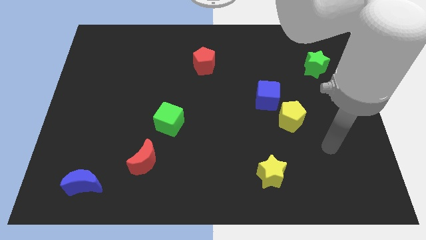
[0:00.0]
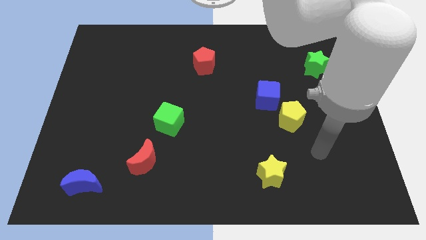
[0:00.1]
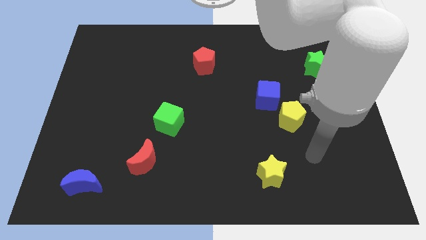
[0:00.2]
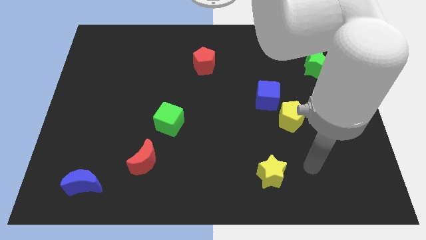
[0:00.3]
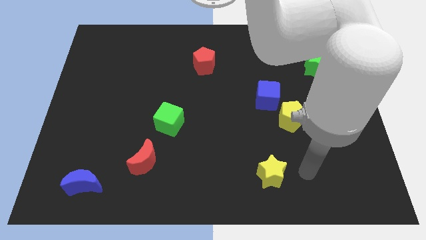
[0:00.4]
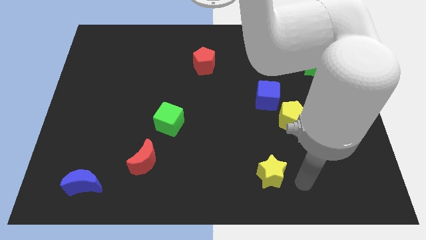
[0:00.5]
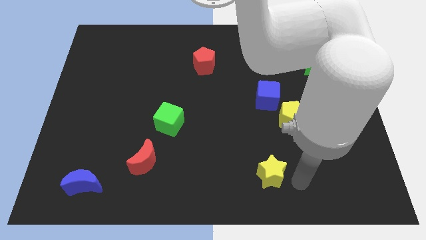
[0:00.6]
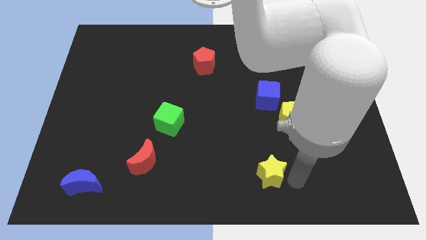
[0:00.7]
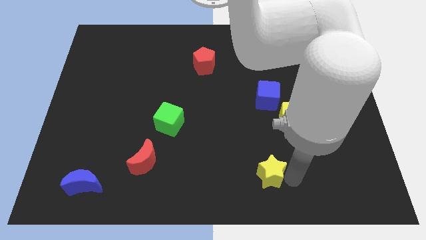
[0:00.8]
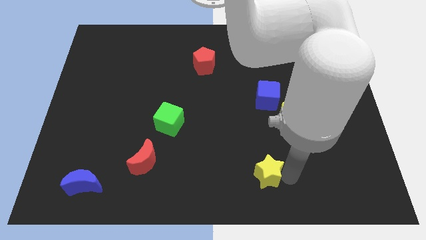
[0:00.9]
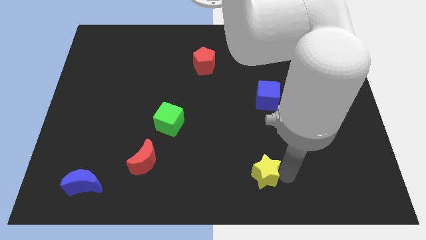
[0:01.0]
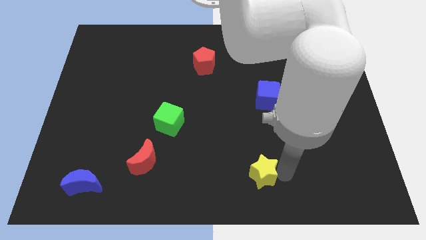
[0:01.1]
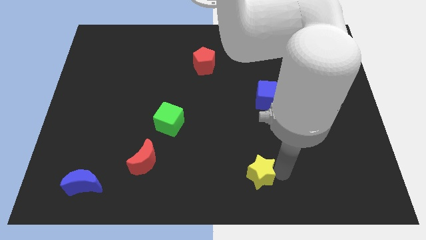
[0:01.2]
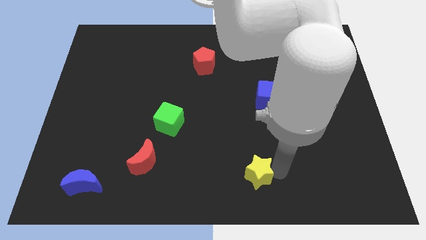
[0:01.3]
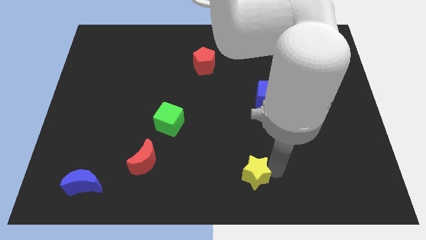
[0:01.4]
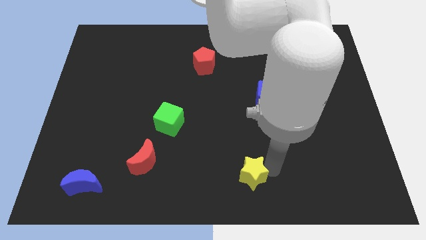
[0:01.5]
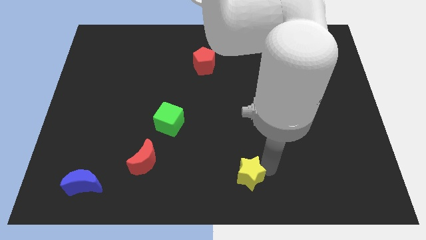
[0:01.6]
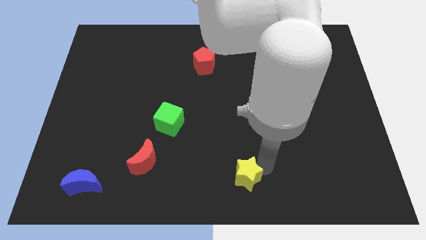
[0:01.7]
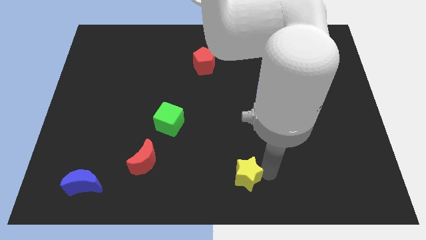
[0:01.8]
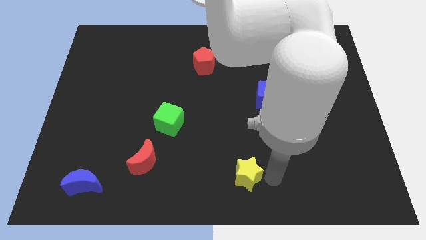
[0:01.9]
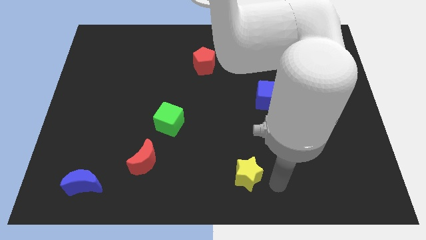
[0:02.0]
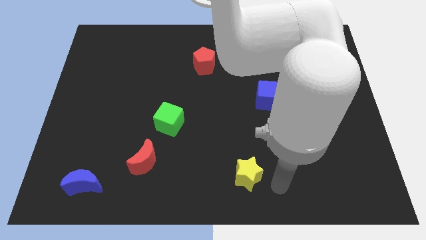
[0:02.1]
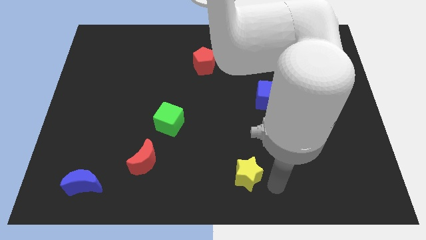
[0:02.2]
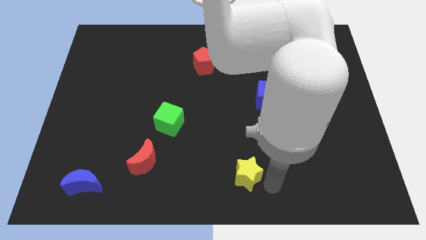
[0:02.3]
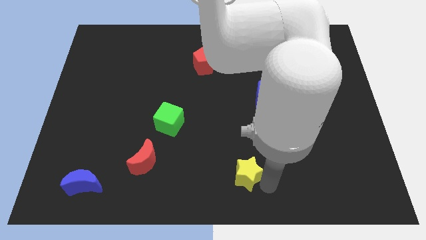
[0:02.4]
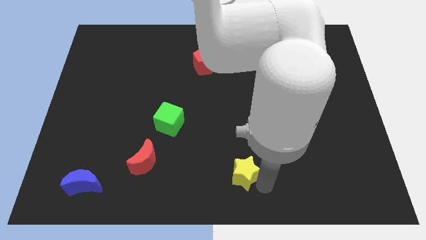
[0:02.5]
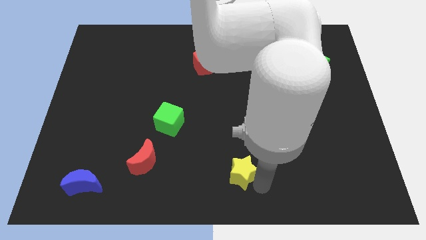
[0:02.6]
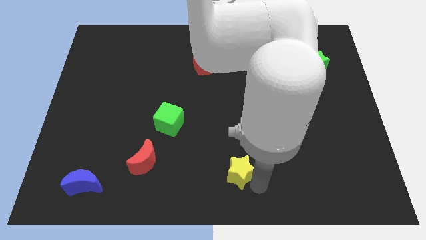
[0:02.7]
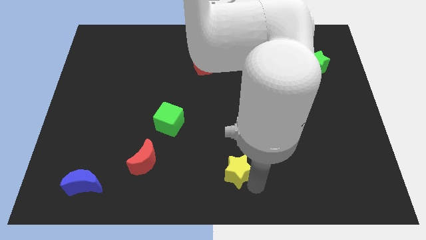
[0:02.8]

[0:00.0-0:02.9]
slightly move the yellow star to the left

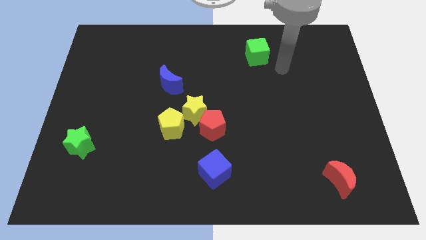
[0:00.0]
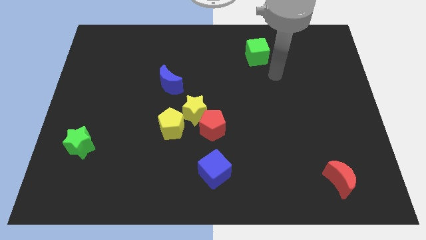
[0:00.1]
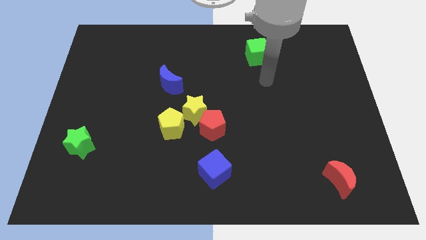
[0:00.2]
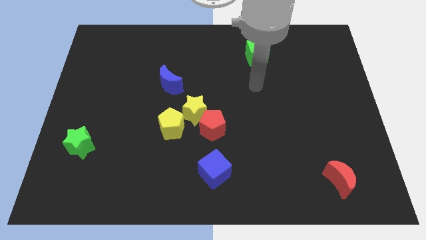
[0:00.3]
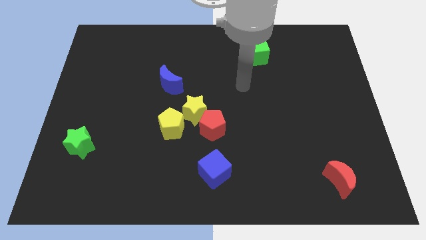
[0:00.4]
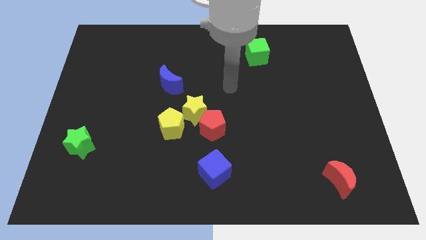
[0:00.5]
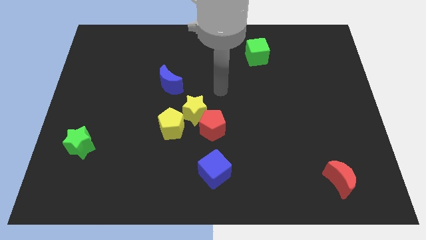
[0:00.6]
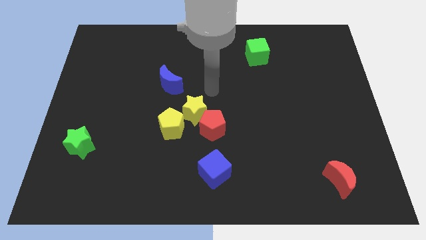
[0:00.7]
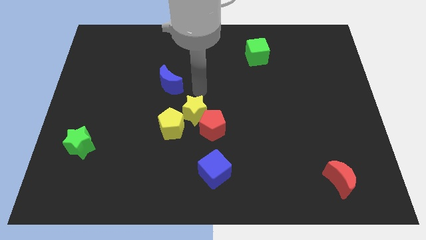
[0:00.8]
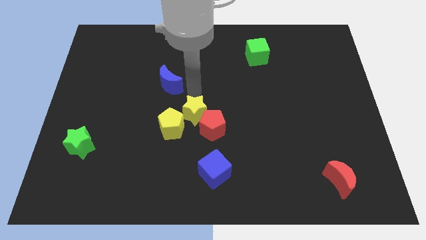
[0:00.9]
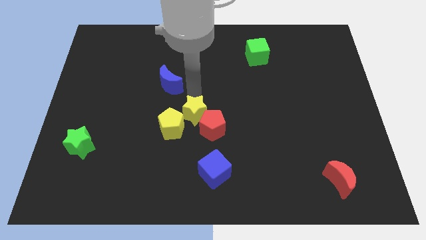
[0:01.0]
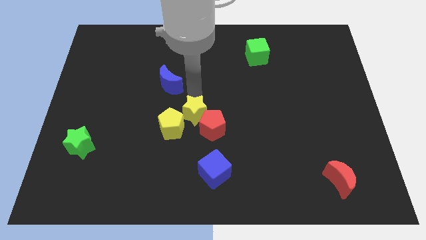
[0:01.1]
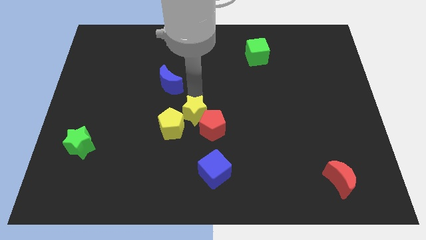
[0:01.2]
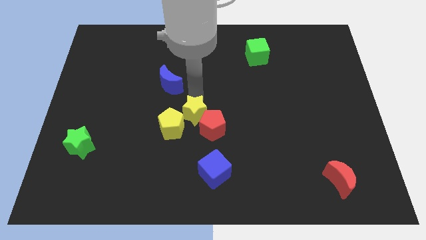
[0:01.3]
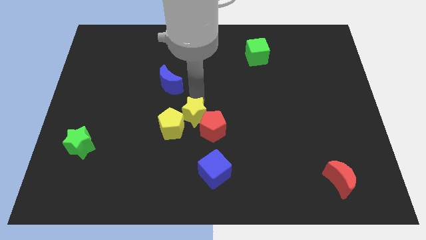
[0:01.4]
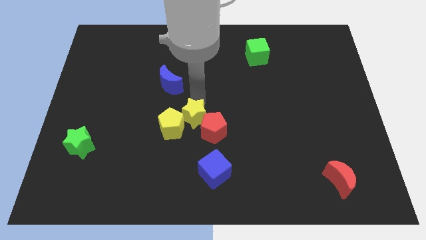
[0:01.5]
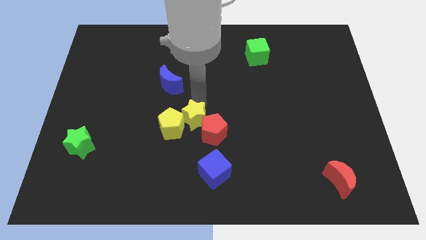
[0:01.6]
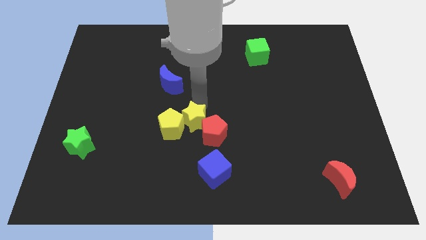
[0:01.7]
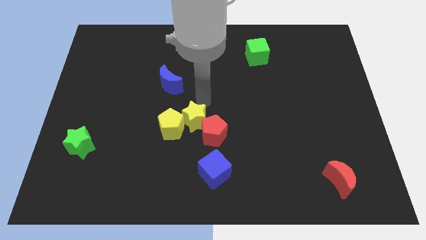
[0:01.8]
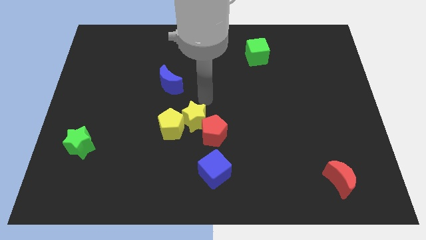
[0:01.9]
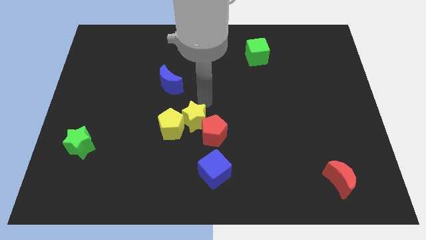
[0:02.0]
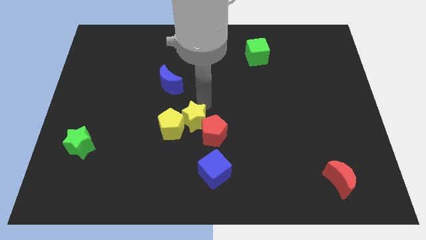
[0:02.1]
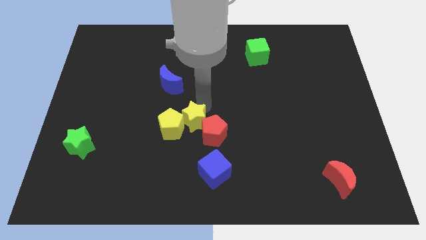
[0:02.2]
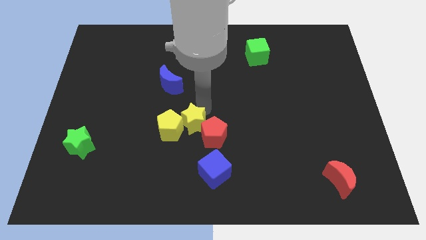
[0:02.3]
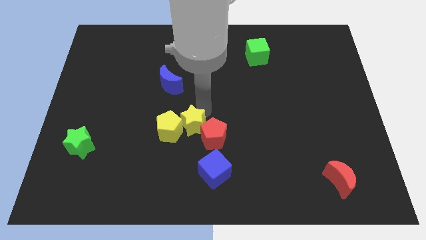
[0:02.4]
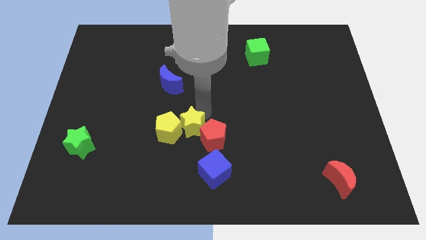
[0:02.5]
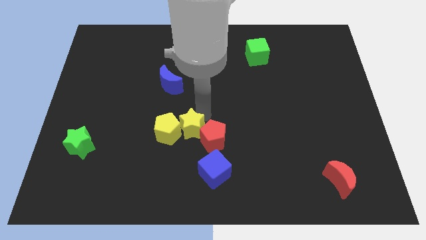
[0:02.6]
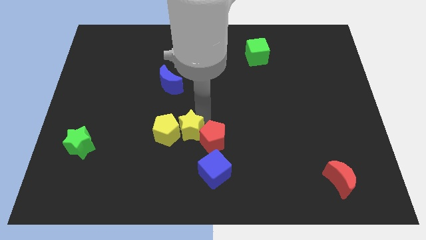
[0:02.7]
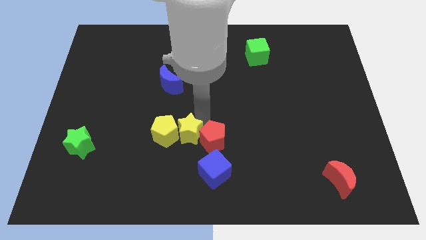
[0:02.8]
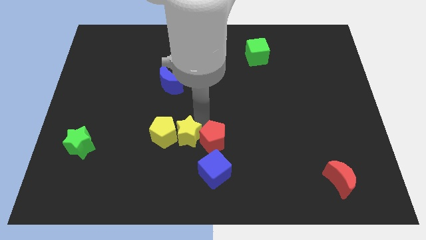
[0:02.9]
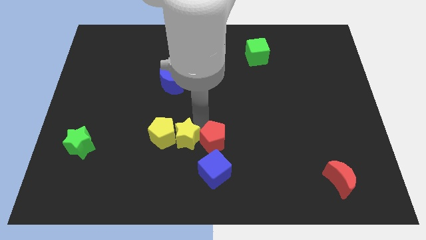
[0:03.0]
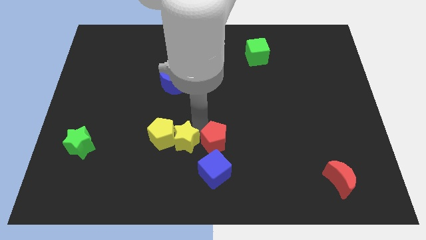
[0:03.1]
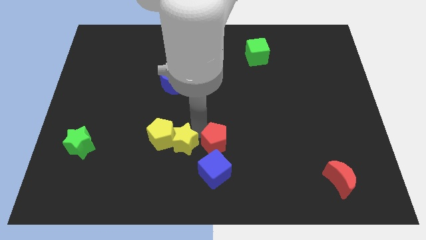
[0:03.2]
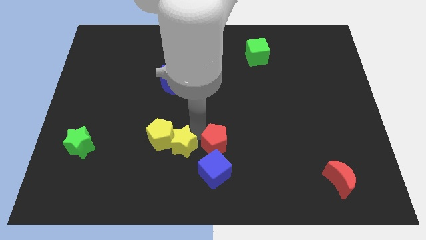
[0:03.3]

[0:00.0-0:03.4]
move the yellow star a bit downwards and left

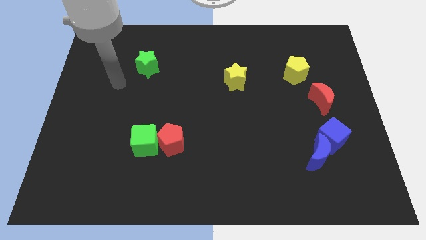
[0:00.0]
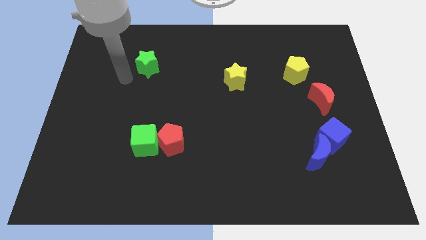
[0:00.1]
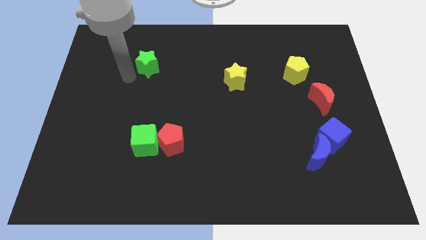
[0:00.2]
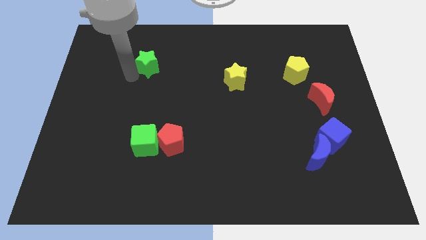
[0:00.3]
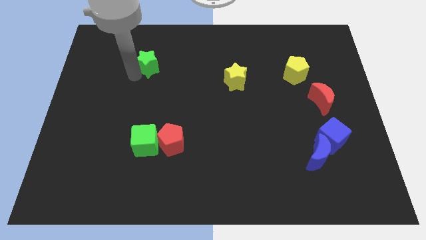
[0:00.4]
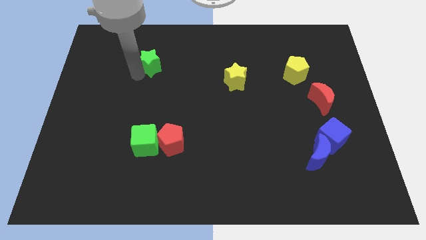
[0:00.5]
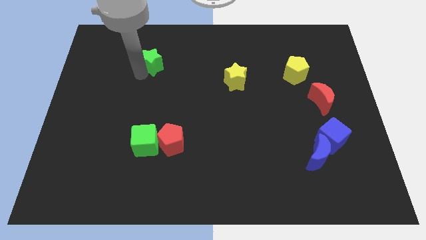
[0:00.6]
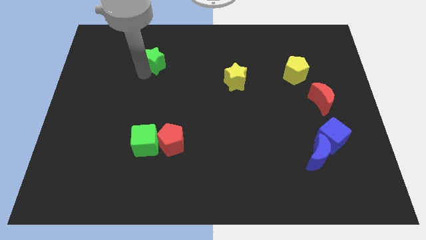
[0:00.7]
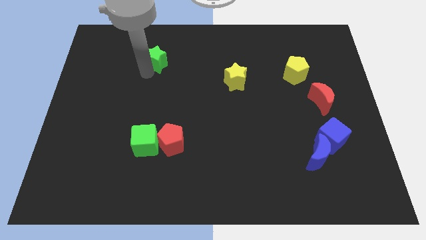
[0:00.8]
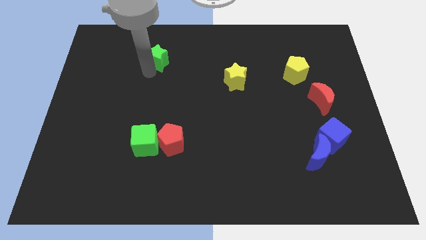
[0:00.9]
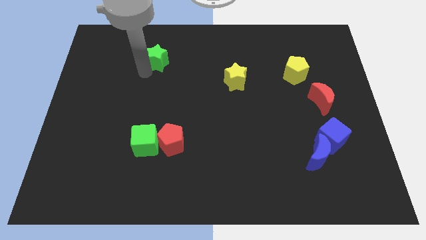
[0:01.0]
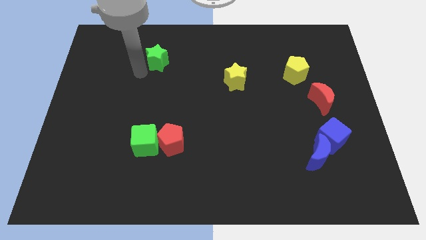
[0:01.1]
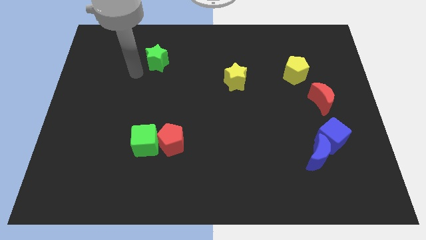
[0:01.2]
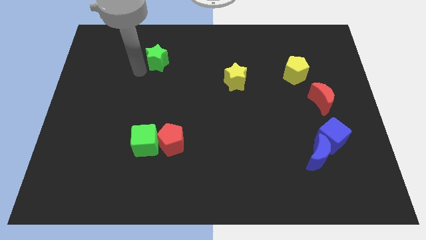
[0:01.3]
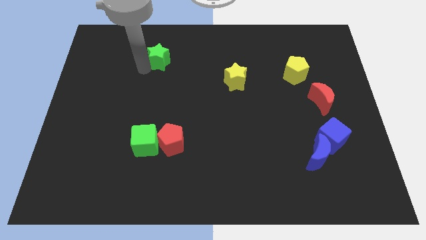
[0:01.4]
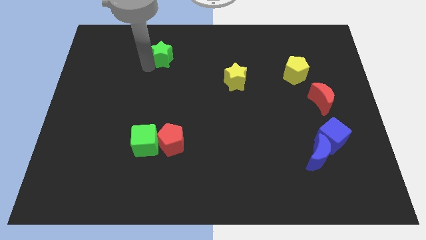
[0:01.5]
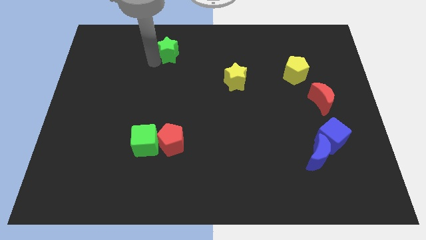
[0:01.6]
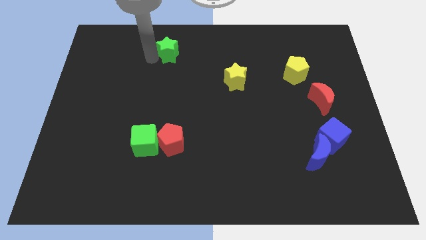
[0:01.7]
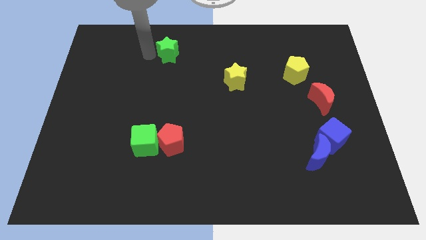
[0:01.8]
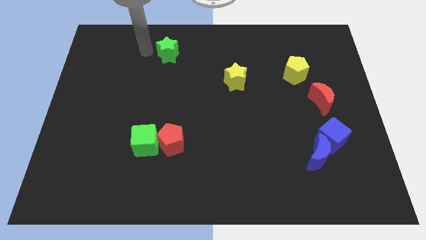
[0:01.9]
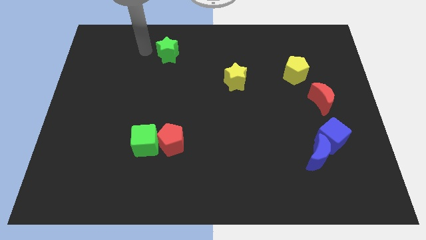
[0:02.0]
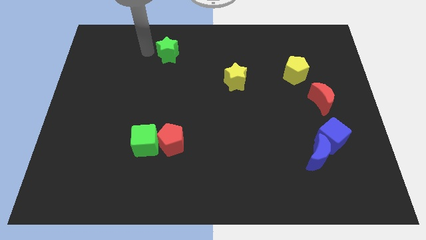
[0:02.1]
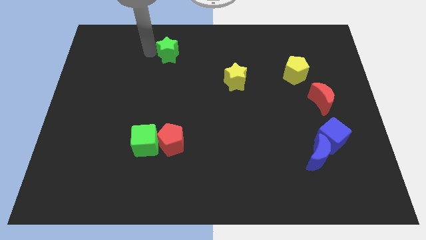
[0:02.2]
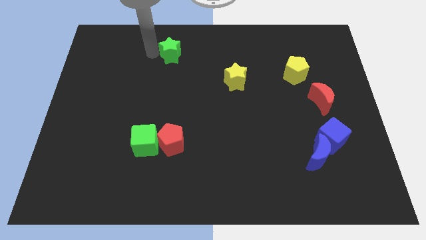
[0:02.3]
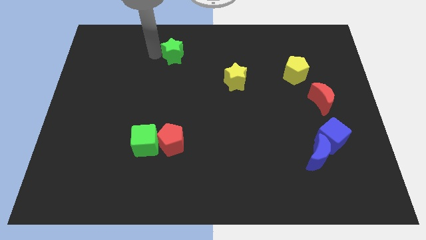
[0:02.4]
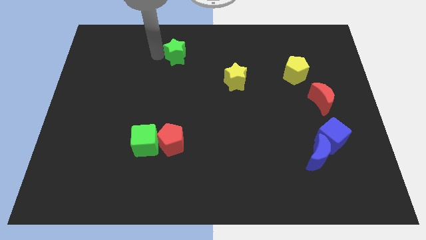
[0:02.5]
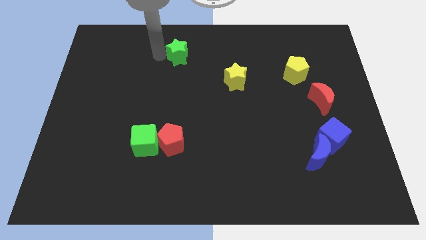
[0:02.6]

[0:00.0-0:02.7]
push the green star to the right somewhat
